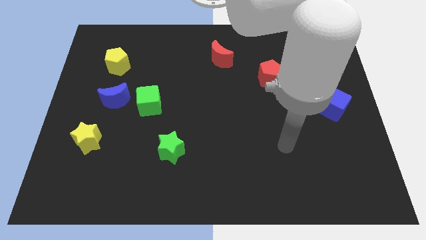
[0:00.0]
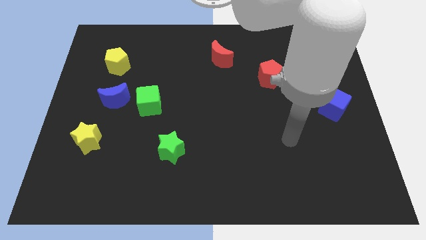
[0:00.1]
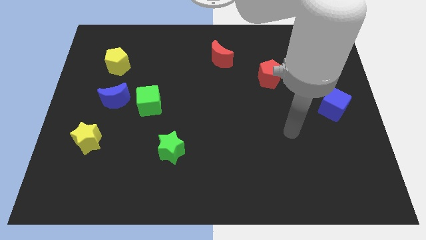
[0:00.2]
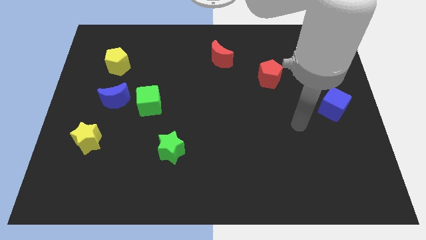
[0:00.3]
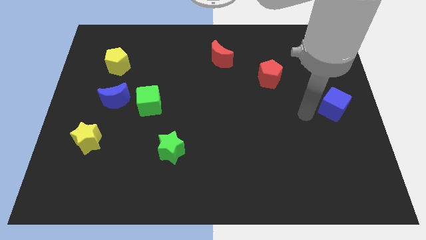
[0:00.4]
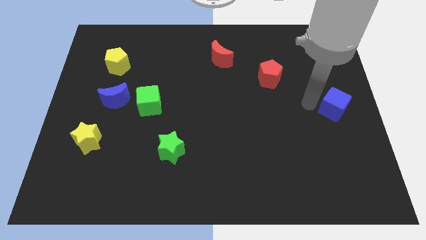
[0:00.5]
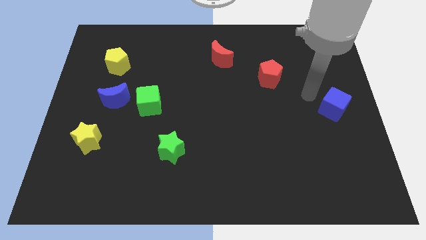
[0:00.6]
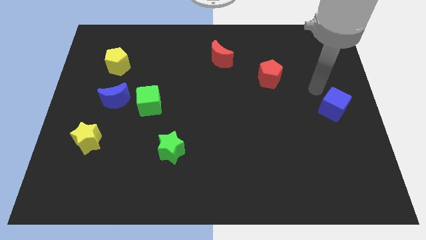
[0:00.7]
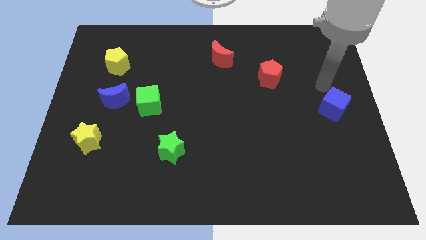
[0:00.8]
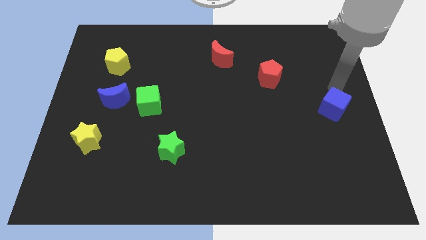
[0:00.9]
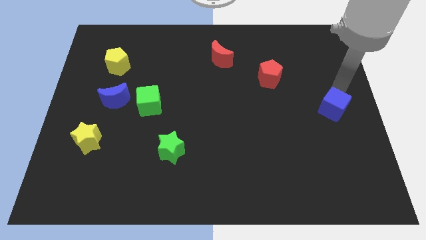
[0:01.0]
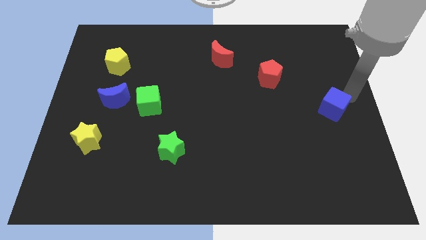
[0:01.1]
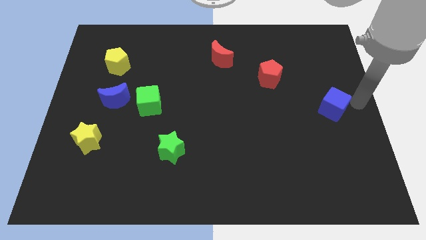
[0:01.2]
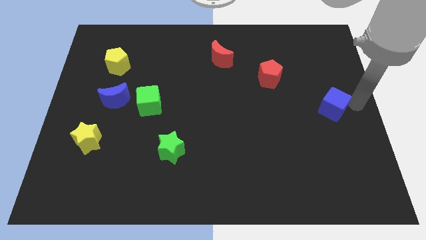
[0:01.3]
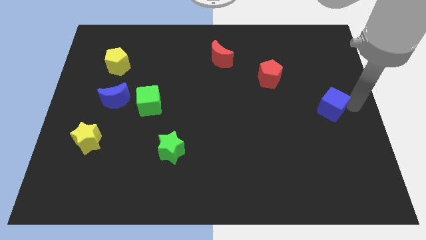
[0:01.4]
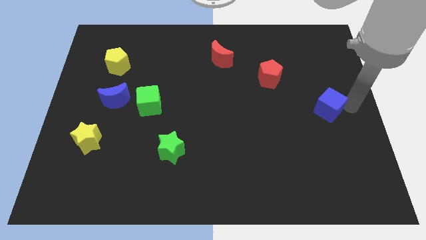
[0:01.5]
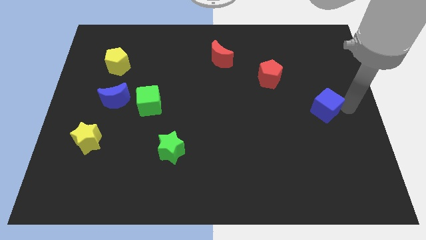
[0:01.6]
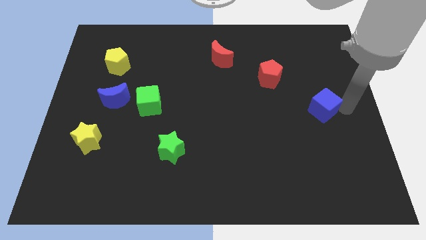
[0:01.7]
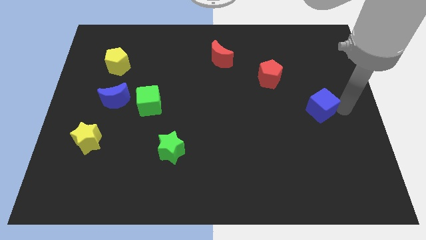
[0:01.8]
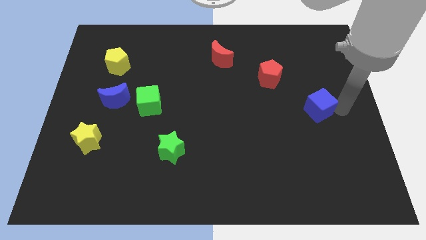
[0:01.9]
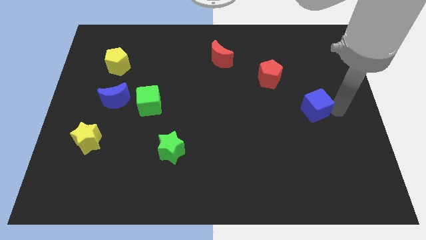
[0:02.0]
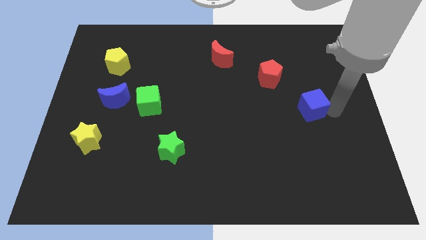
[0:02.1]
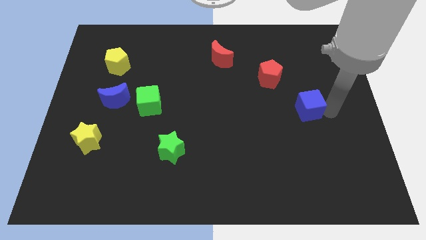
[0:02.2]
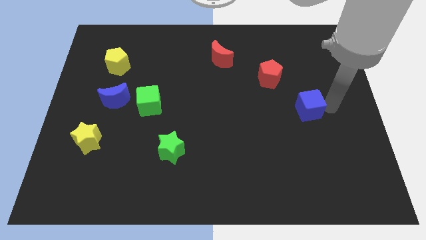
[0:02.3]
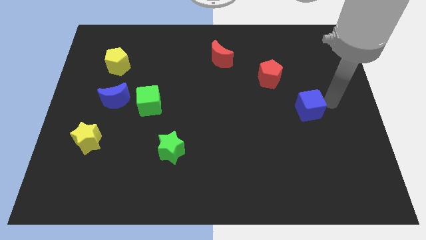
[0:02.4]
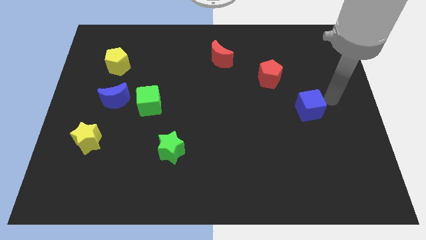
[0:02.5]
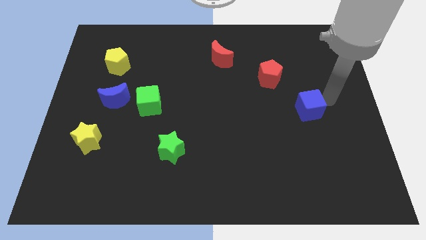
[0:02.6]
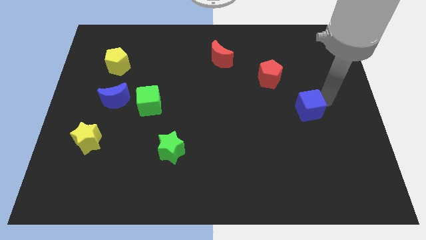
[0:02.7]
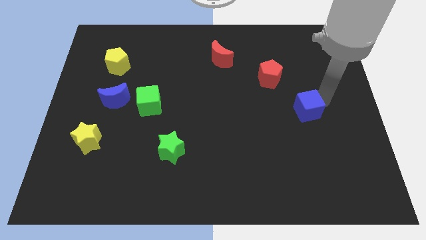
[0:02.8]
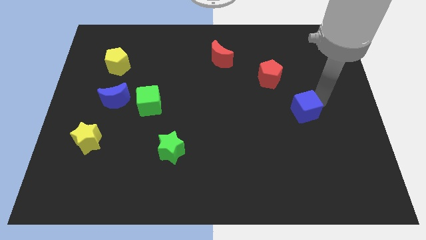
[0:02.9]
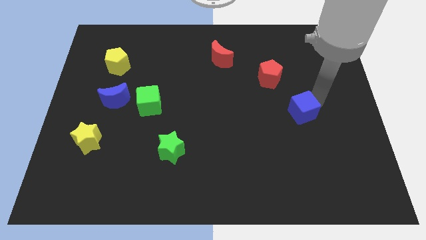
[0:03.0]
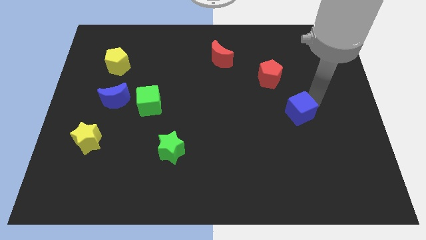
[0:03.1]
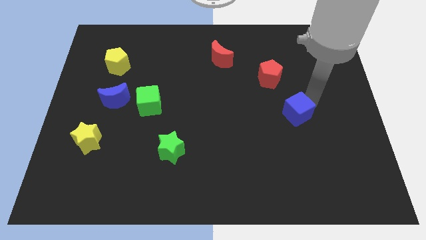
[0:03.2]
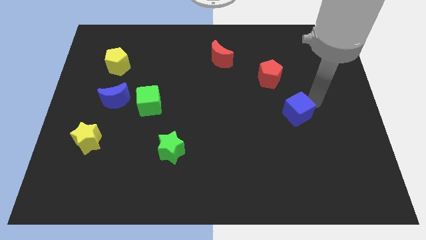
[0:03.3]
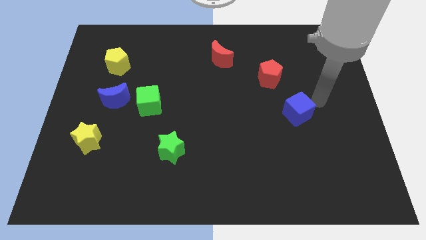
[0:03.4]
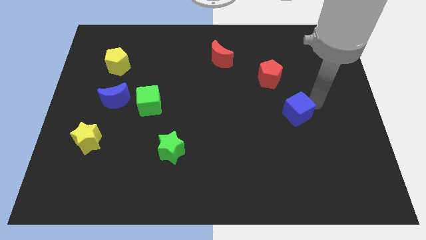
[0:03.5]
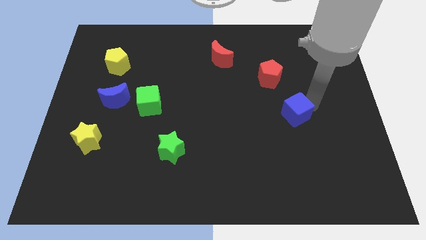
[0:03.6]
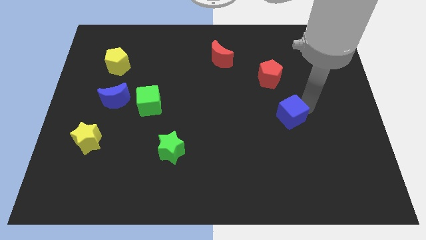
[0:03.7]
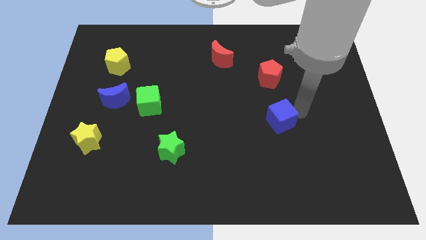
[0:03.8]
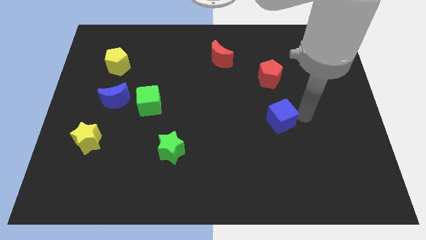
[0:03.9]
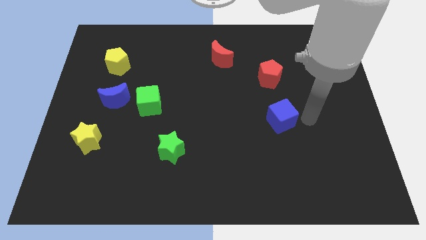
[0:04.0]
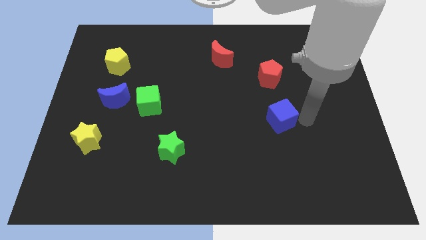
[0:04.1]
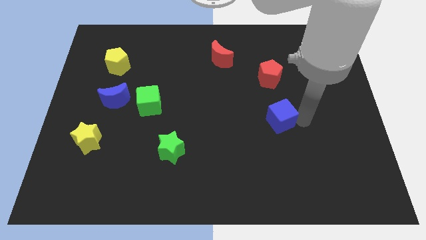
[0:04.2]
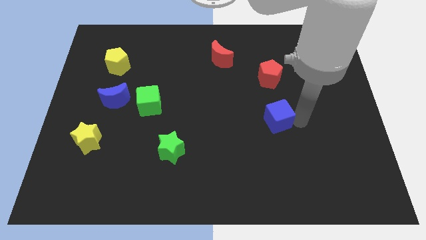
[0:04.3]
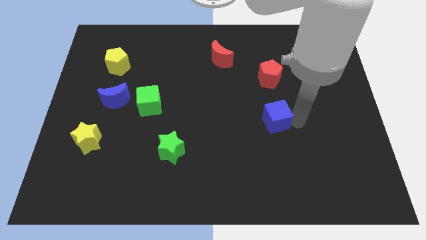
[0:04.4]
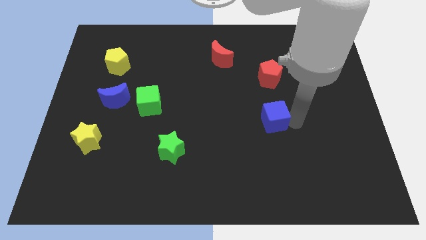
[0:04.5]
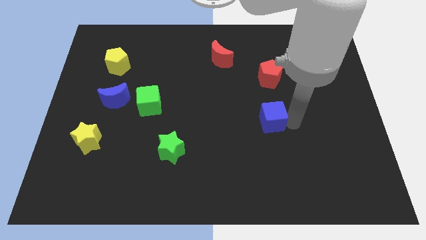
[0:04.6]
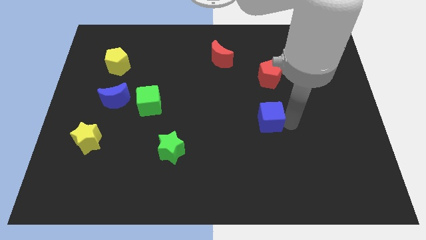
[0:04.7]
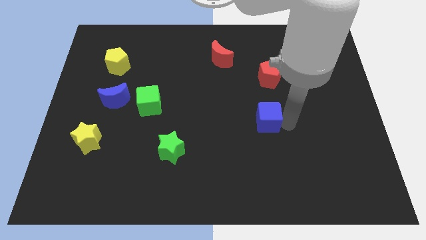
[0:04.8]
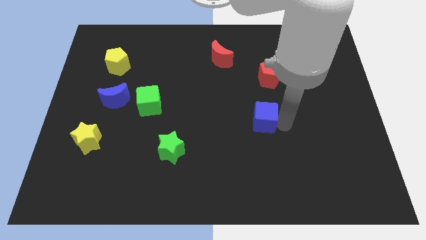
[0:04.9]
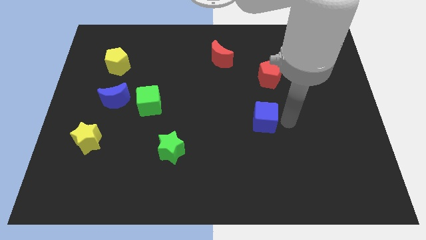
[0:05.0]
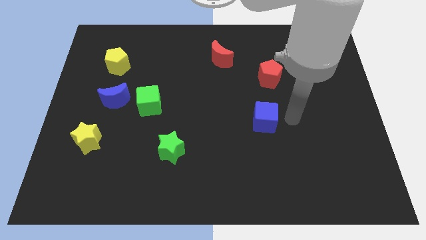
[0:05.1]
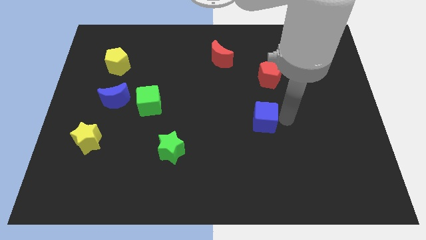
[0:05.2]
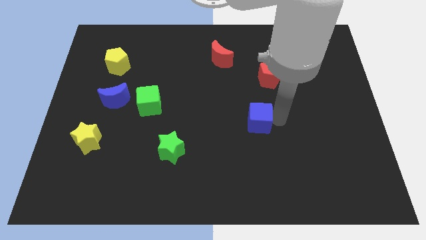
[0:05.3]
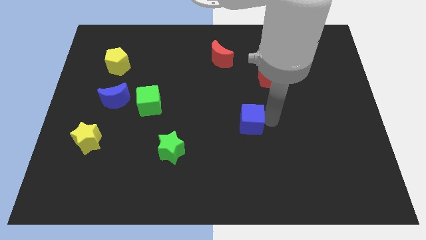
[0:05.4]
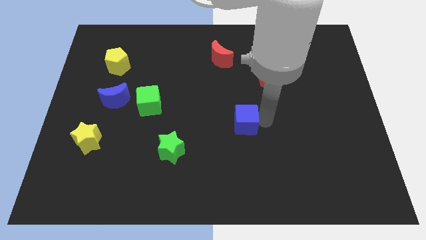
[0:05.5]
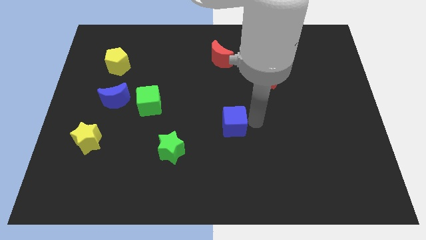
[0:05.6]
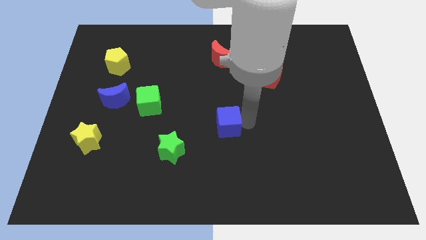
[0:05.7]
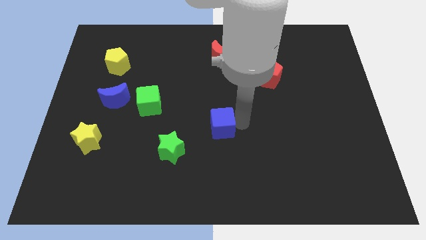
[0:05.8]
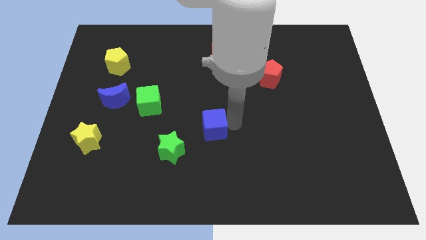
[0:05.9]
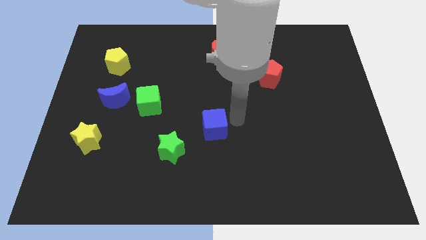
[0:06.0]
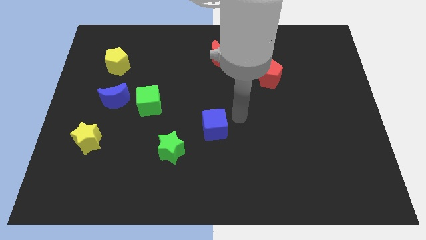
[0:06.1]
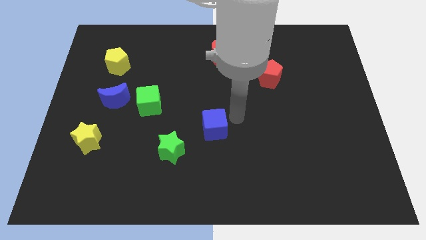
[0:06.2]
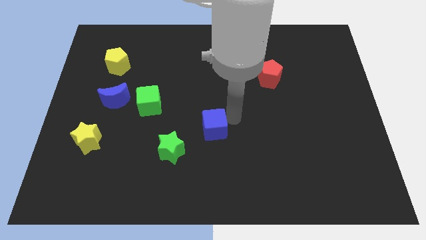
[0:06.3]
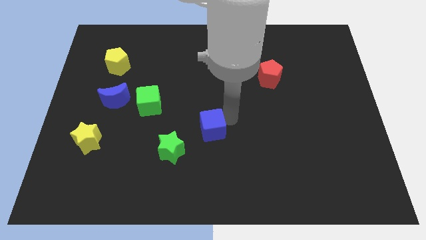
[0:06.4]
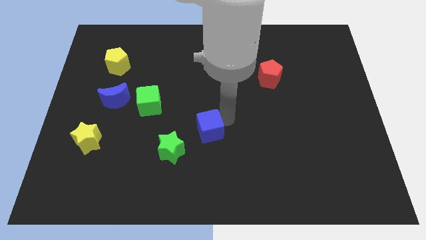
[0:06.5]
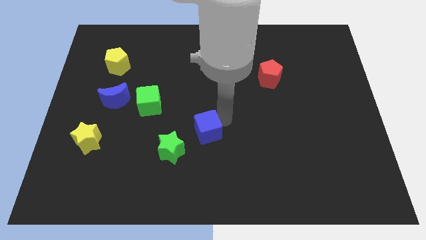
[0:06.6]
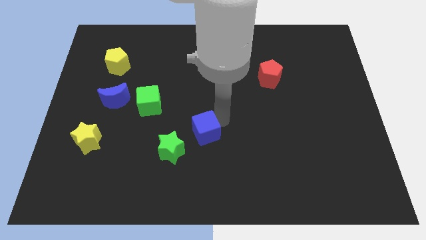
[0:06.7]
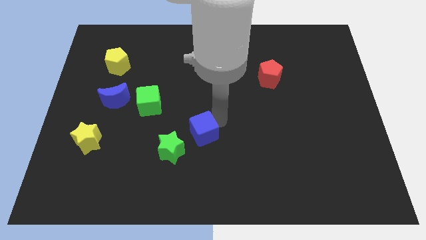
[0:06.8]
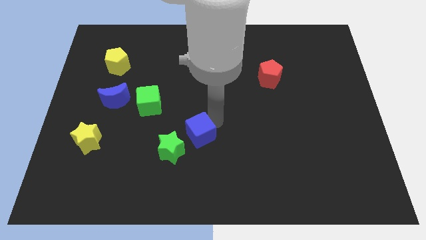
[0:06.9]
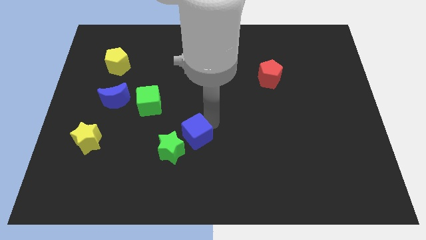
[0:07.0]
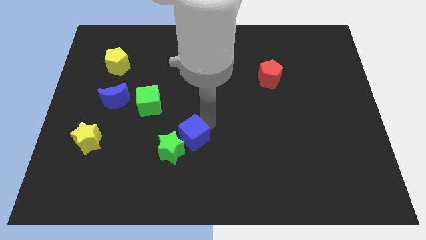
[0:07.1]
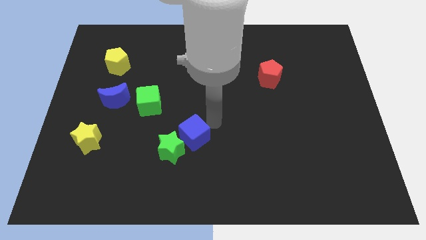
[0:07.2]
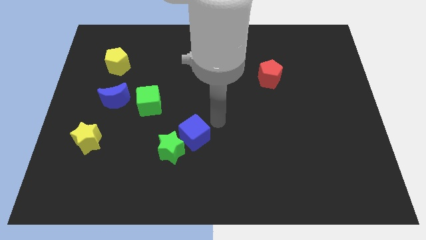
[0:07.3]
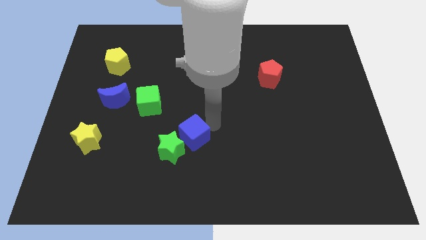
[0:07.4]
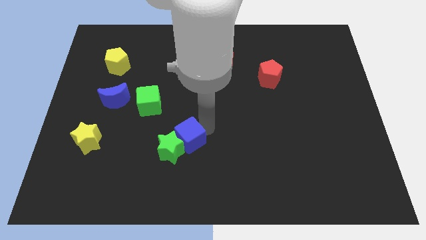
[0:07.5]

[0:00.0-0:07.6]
put the blue cube next to the green star
